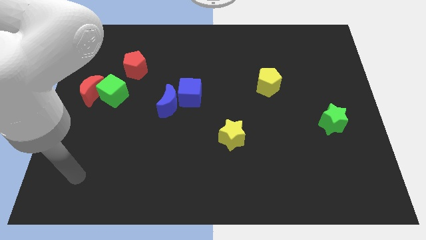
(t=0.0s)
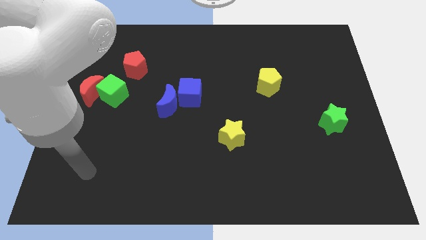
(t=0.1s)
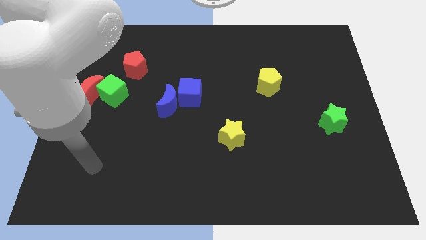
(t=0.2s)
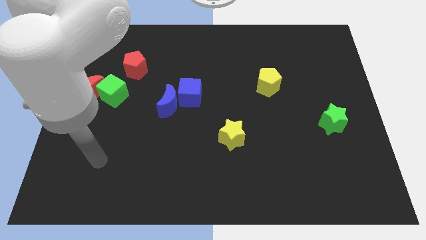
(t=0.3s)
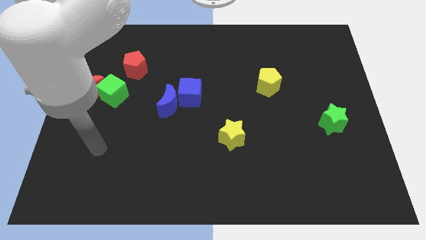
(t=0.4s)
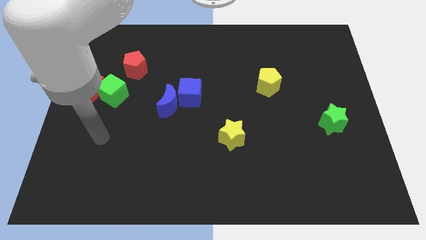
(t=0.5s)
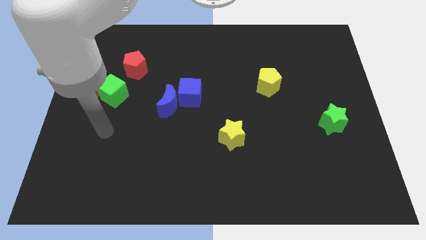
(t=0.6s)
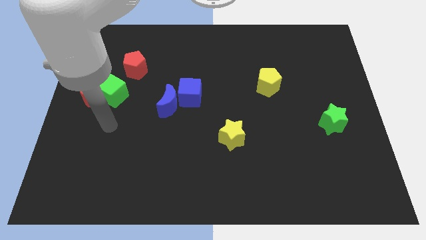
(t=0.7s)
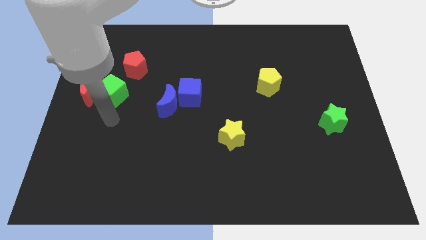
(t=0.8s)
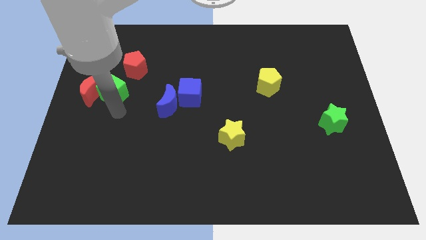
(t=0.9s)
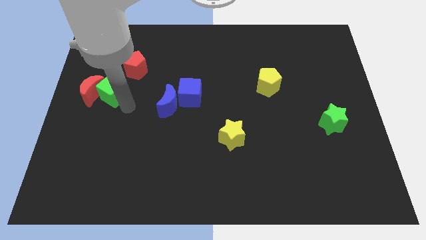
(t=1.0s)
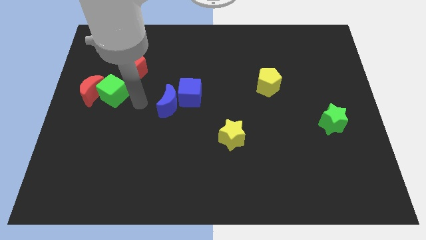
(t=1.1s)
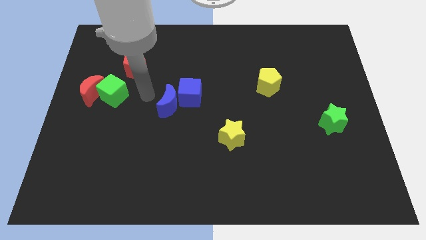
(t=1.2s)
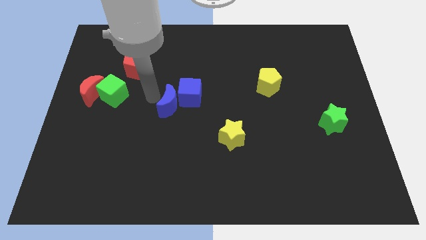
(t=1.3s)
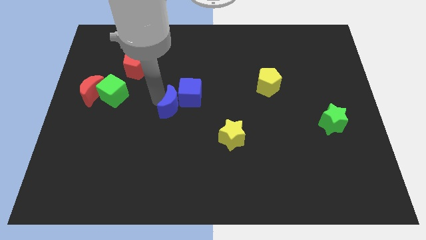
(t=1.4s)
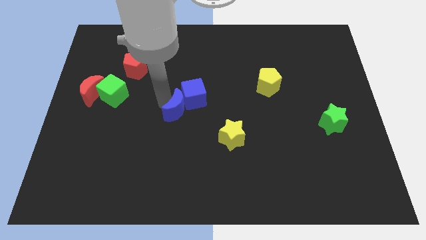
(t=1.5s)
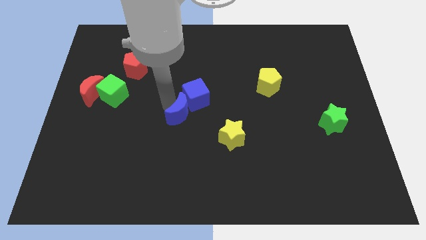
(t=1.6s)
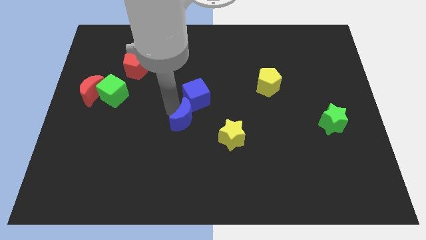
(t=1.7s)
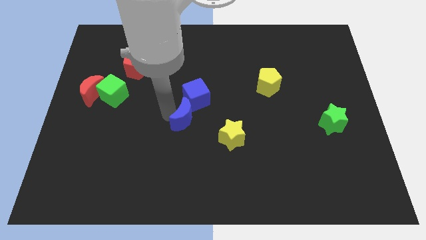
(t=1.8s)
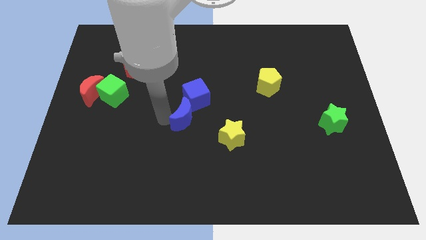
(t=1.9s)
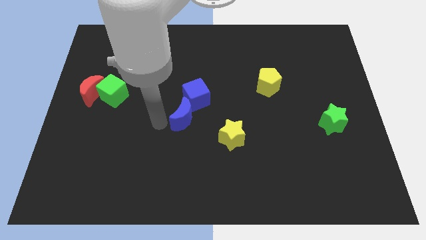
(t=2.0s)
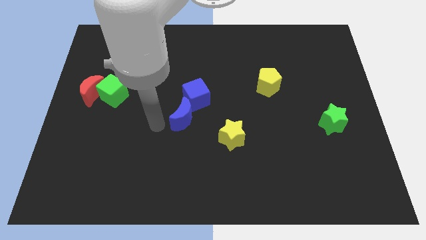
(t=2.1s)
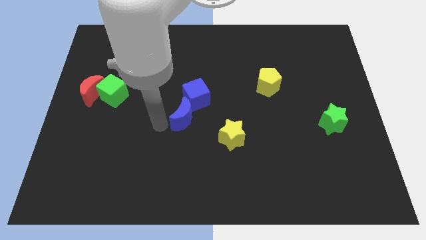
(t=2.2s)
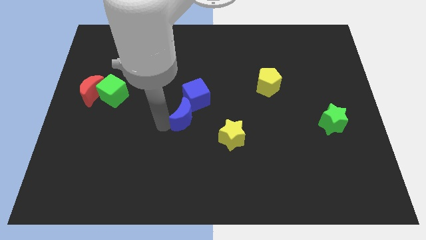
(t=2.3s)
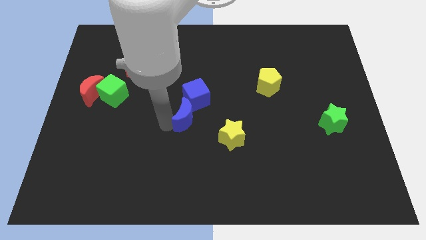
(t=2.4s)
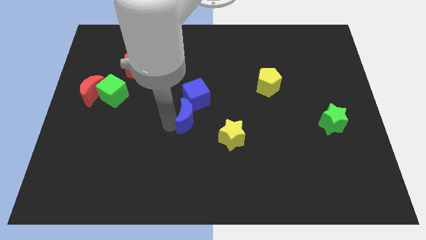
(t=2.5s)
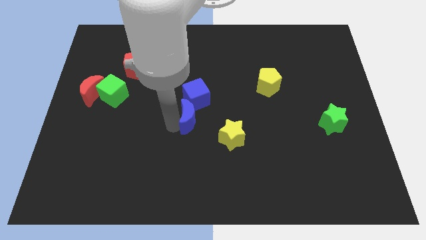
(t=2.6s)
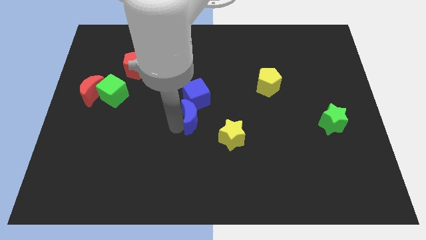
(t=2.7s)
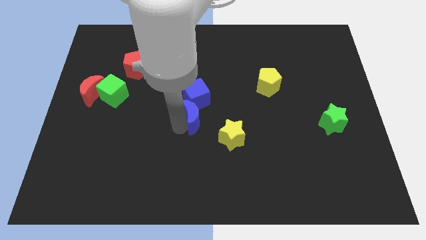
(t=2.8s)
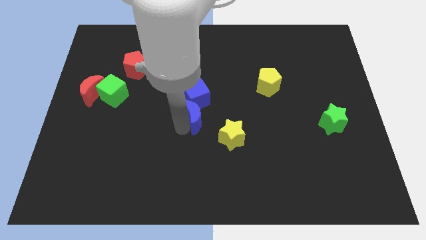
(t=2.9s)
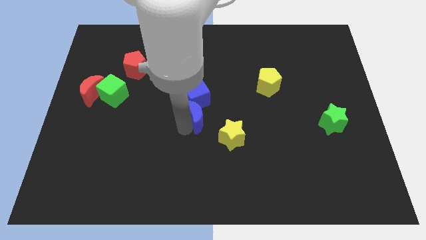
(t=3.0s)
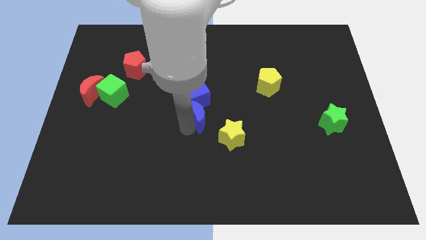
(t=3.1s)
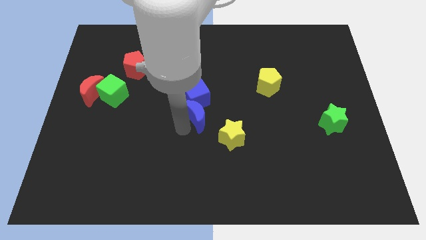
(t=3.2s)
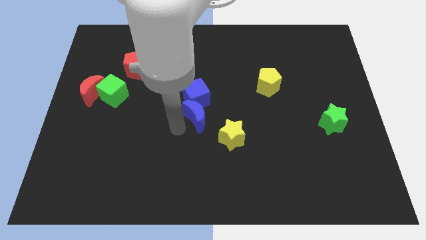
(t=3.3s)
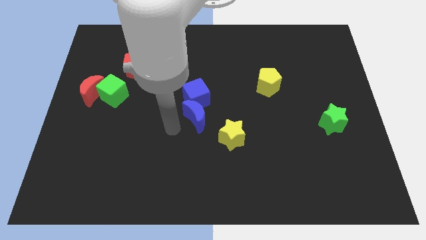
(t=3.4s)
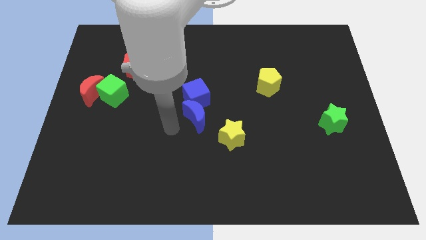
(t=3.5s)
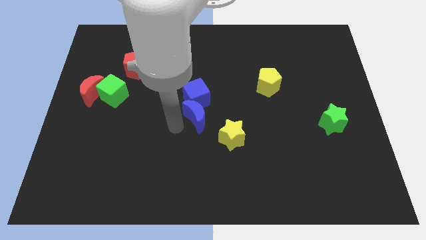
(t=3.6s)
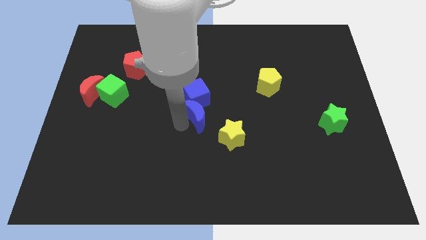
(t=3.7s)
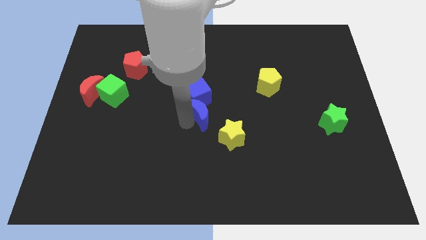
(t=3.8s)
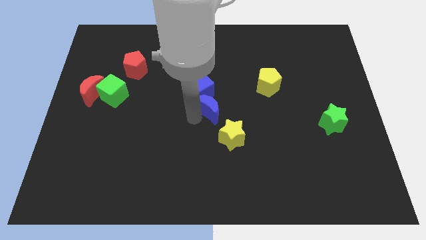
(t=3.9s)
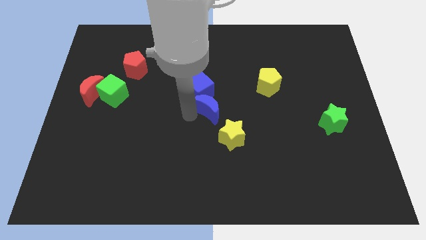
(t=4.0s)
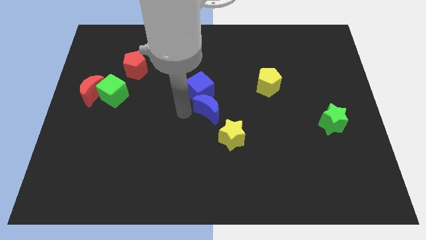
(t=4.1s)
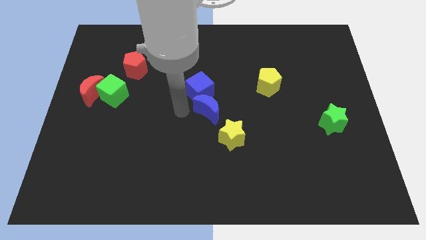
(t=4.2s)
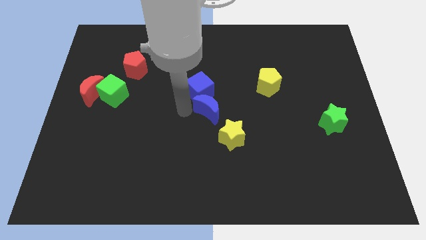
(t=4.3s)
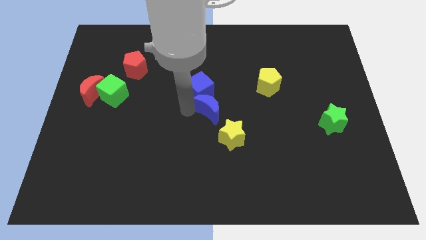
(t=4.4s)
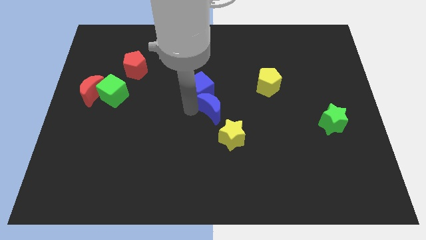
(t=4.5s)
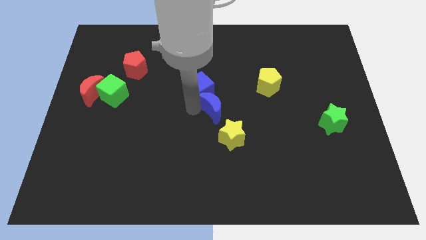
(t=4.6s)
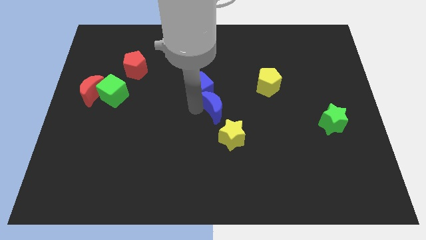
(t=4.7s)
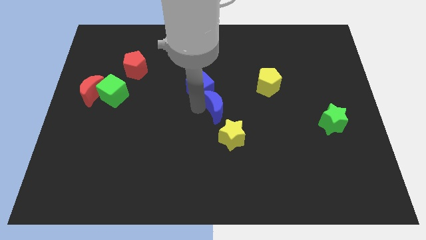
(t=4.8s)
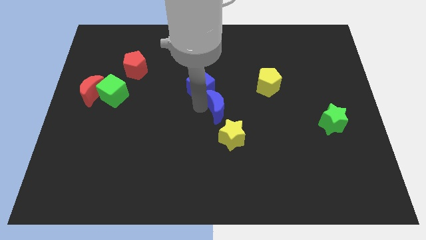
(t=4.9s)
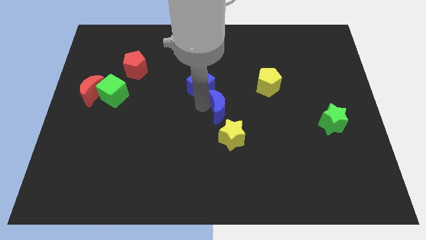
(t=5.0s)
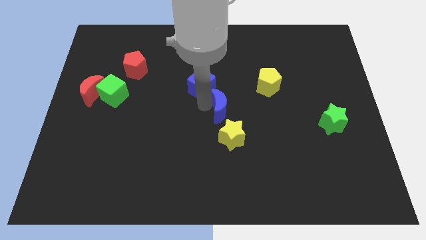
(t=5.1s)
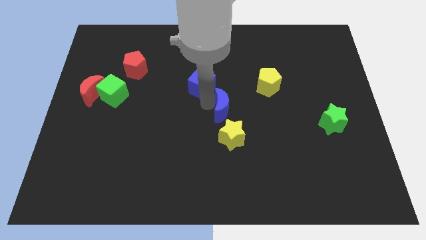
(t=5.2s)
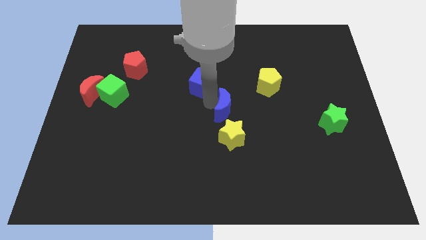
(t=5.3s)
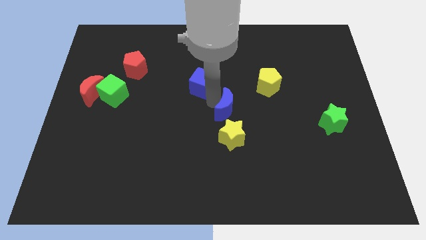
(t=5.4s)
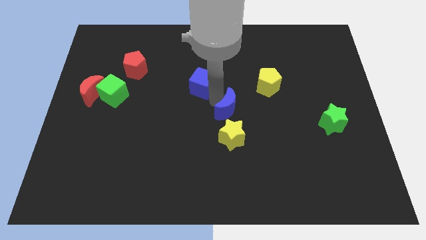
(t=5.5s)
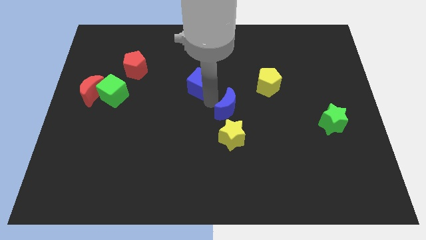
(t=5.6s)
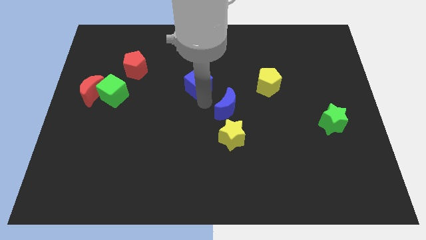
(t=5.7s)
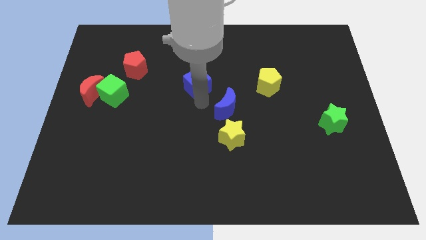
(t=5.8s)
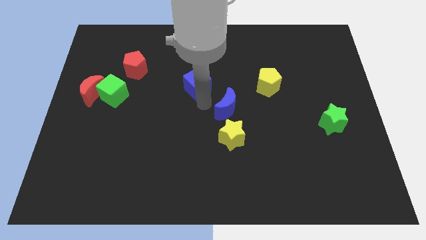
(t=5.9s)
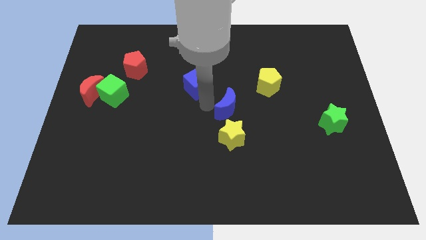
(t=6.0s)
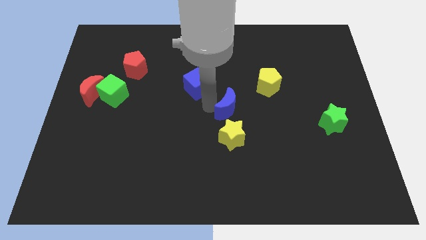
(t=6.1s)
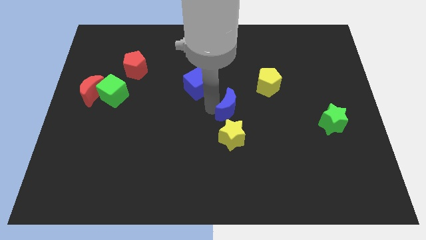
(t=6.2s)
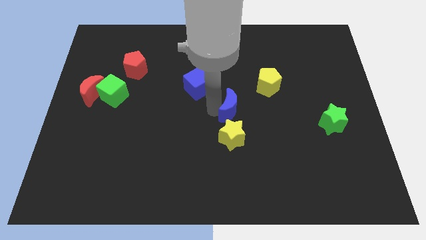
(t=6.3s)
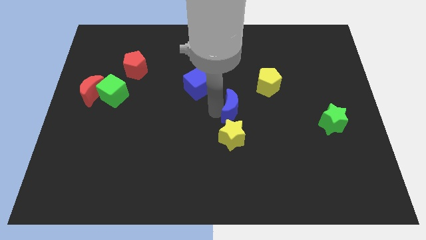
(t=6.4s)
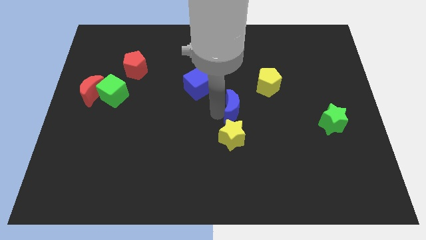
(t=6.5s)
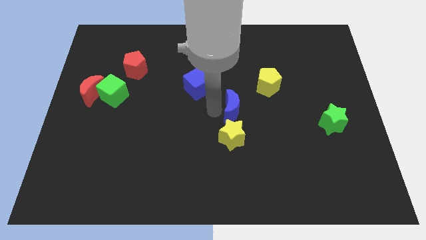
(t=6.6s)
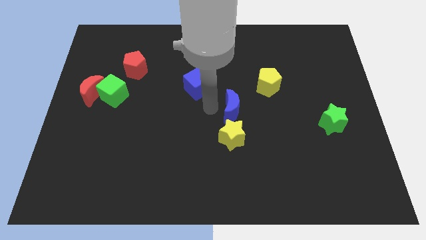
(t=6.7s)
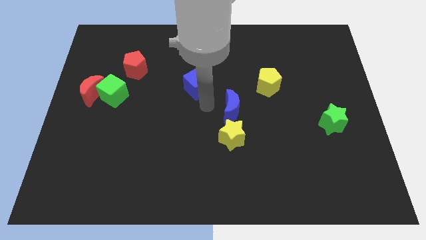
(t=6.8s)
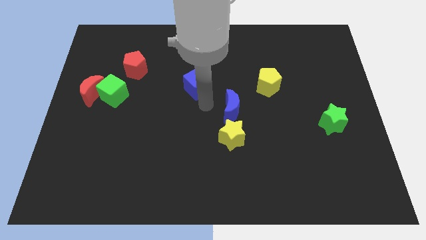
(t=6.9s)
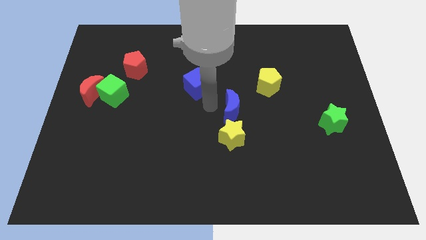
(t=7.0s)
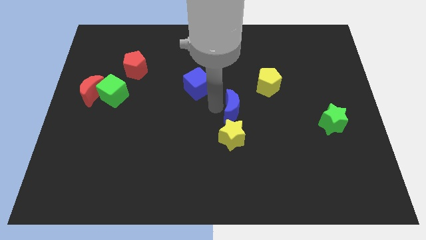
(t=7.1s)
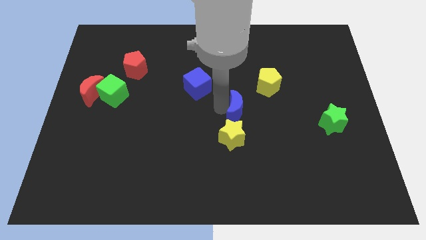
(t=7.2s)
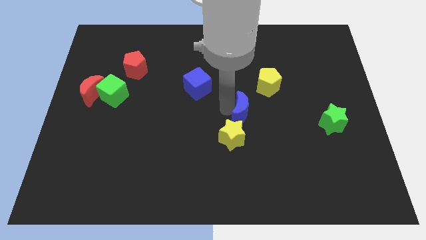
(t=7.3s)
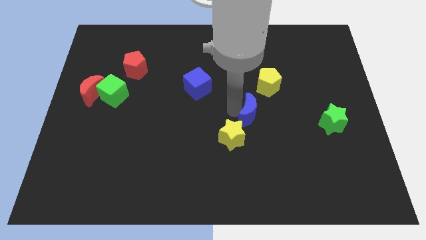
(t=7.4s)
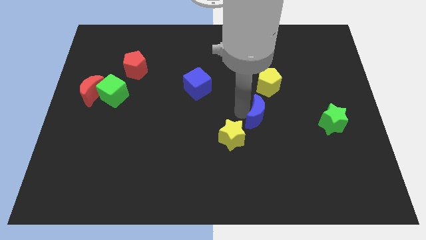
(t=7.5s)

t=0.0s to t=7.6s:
slide the blue moon below the yellow pentagon
